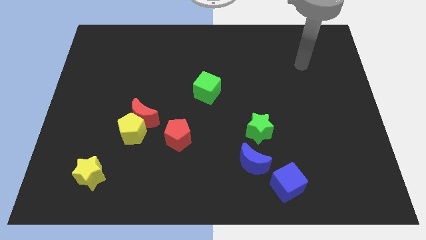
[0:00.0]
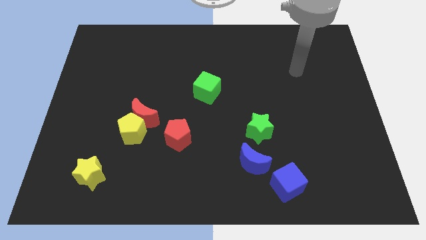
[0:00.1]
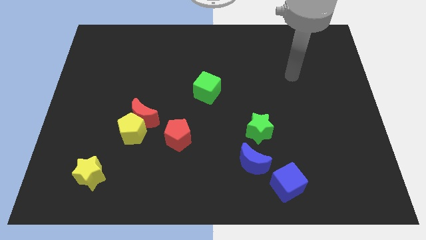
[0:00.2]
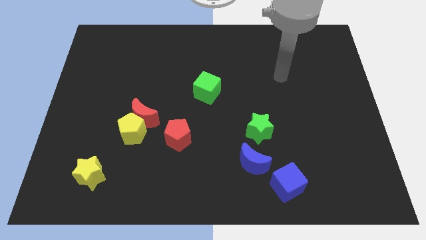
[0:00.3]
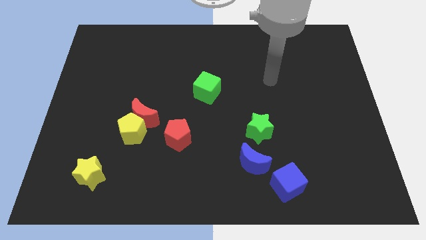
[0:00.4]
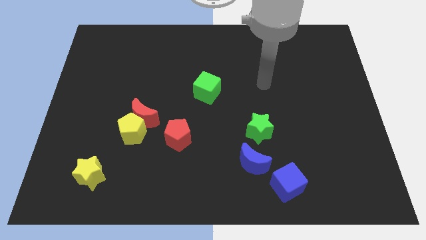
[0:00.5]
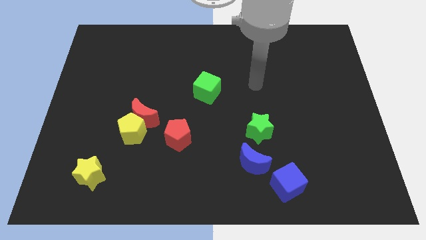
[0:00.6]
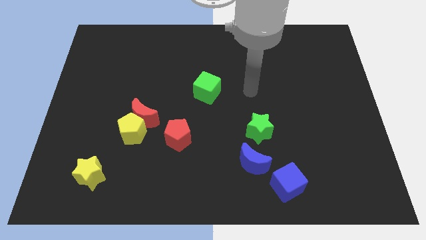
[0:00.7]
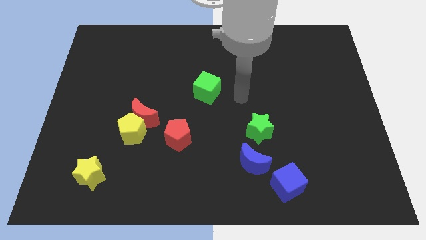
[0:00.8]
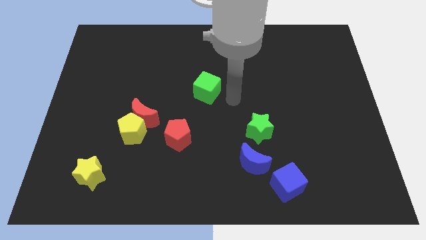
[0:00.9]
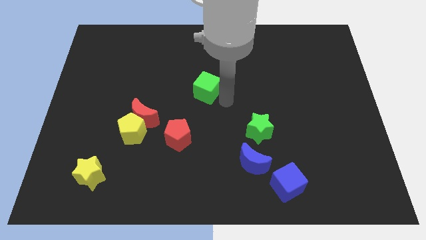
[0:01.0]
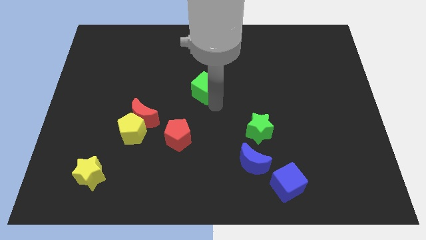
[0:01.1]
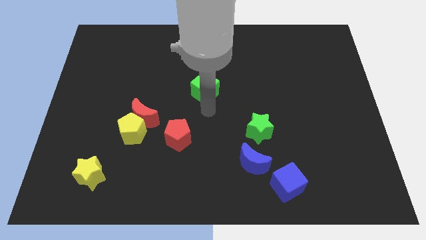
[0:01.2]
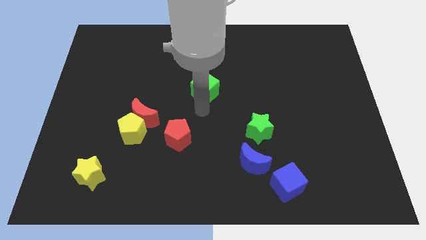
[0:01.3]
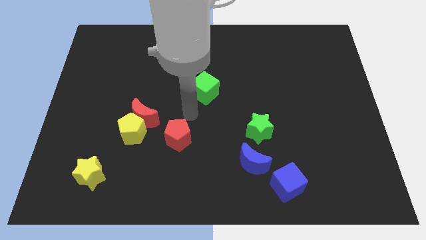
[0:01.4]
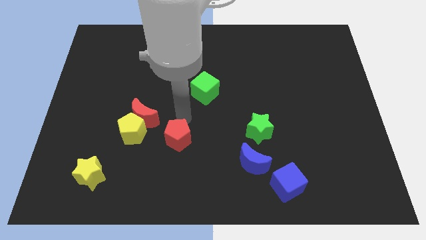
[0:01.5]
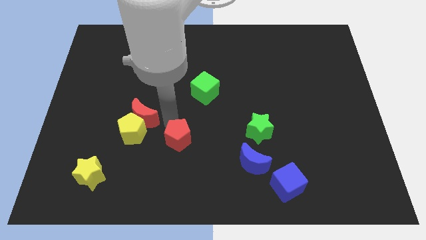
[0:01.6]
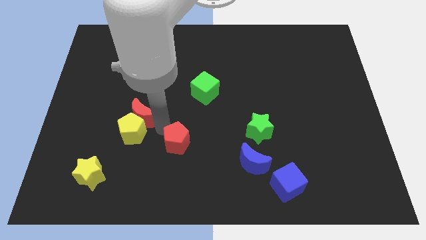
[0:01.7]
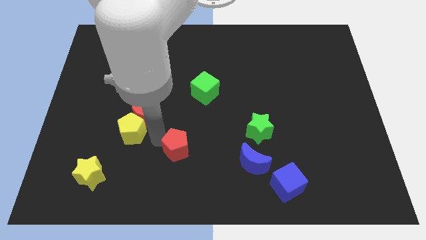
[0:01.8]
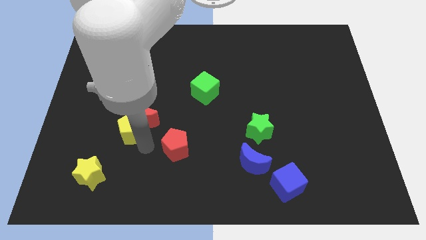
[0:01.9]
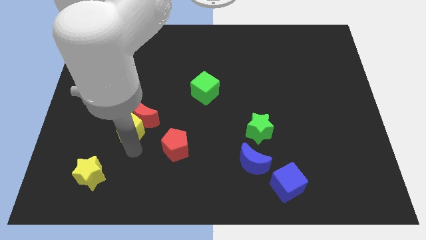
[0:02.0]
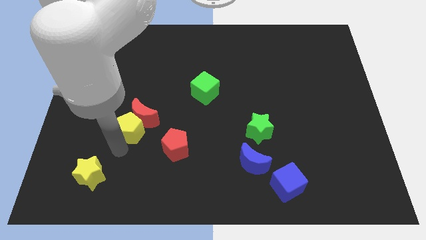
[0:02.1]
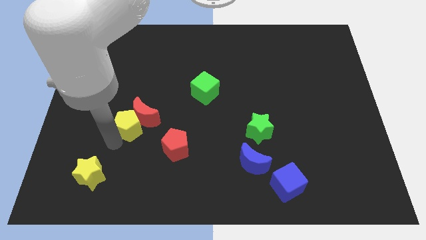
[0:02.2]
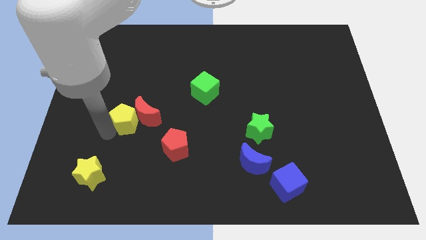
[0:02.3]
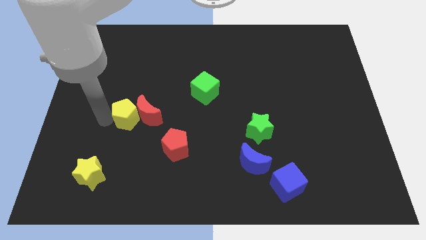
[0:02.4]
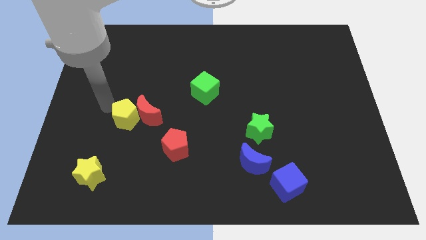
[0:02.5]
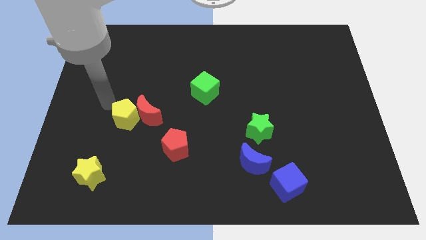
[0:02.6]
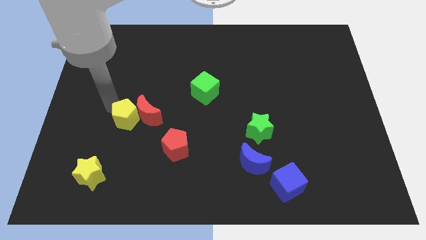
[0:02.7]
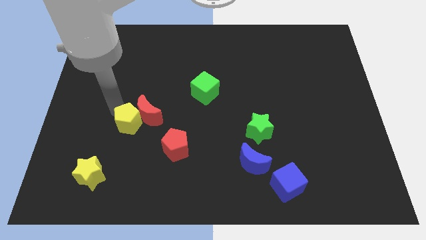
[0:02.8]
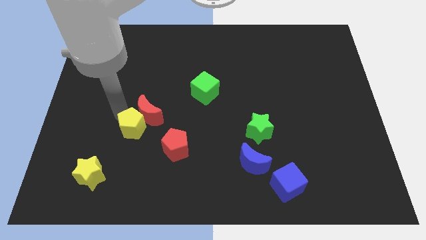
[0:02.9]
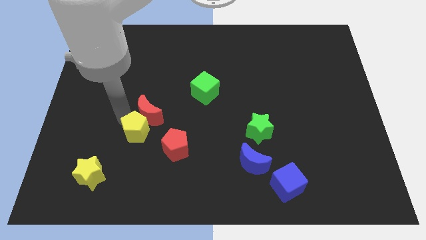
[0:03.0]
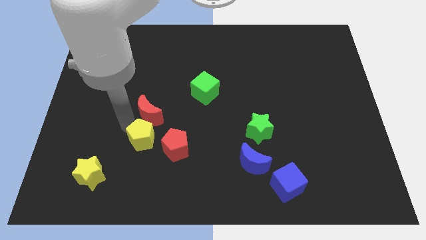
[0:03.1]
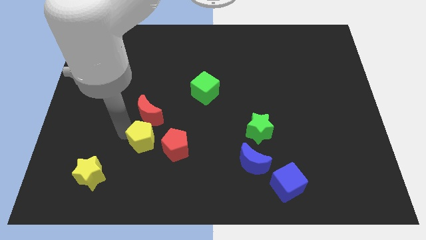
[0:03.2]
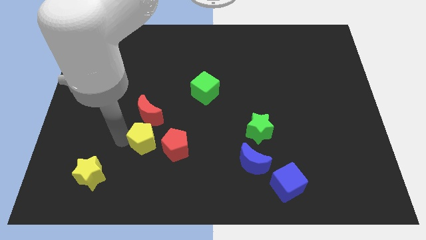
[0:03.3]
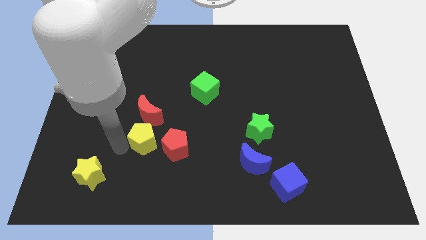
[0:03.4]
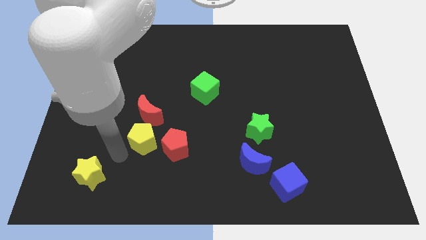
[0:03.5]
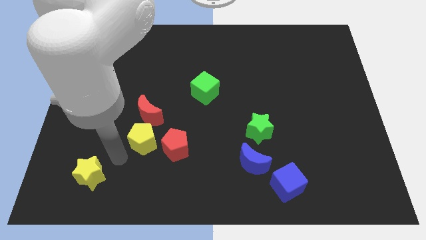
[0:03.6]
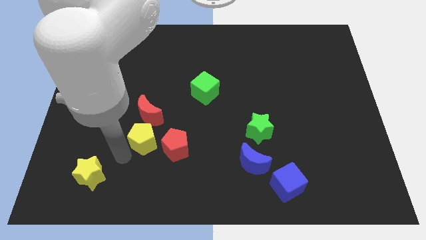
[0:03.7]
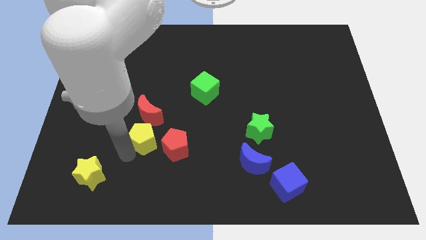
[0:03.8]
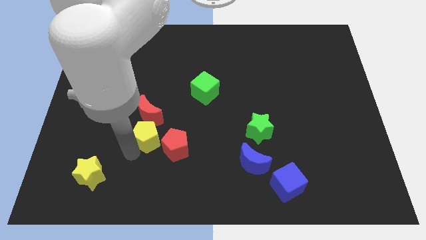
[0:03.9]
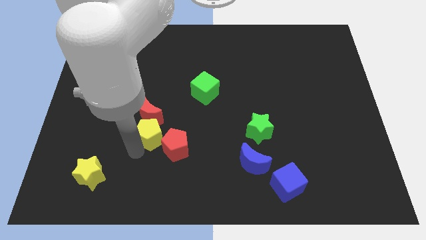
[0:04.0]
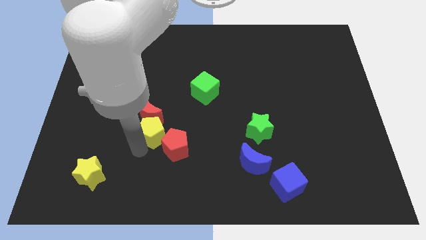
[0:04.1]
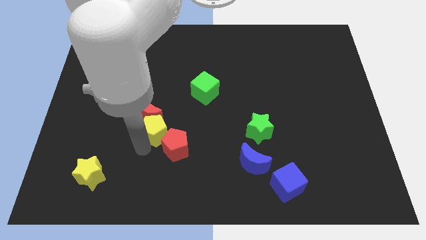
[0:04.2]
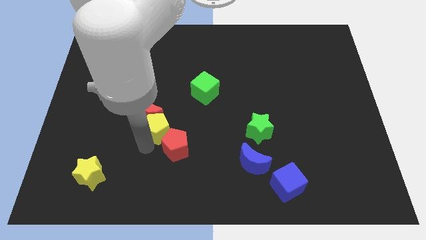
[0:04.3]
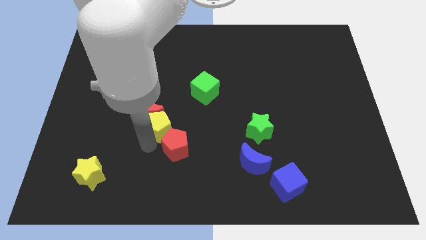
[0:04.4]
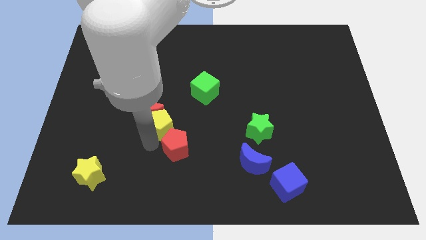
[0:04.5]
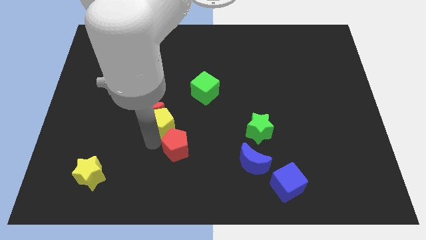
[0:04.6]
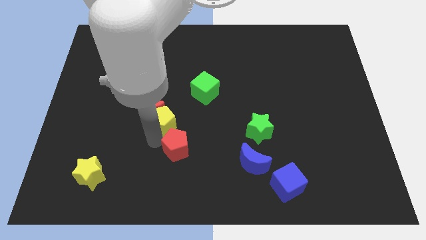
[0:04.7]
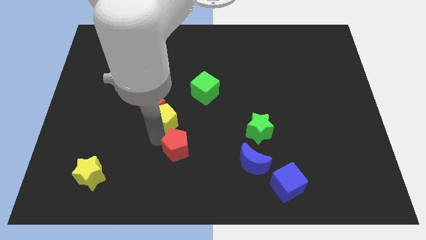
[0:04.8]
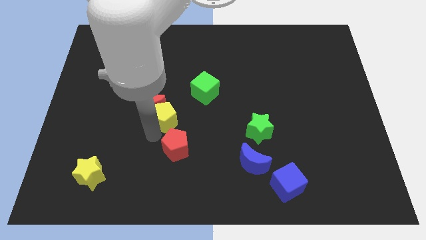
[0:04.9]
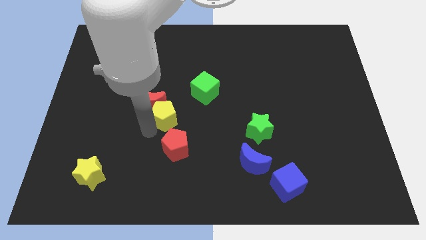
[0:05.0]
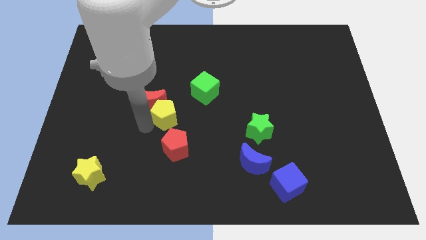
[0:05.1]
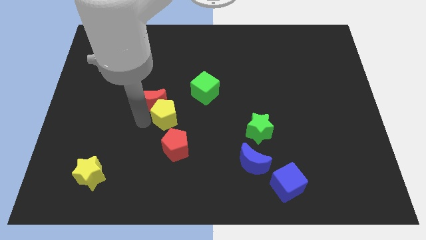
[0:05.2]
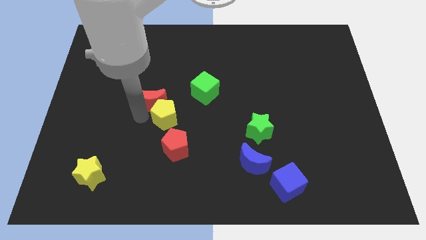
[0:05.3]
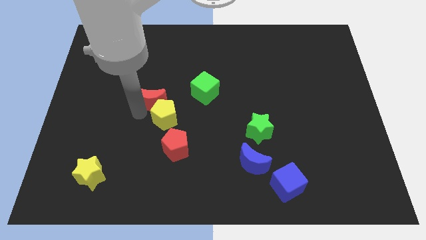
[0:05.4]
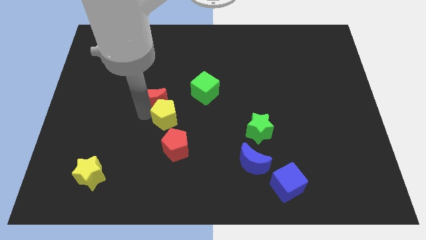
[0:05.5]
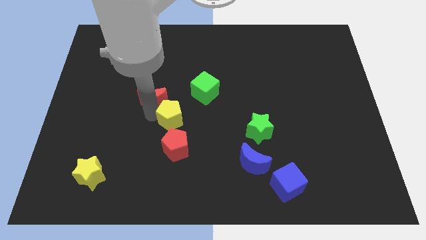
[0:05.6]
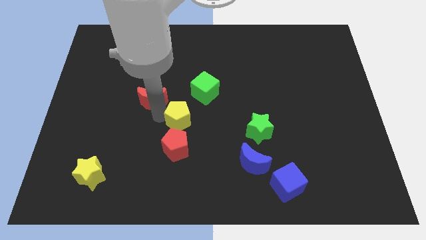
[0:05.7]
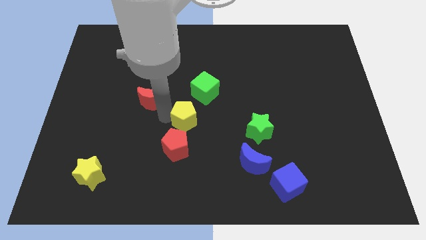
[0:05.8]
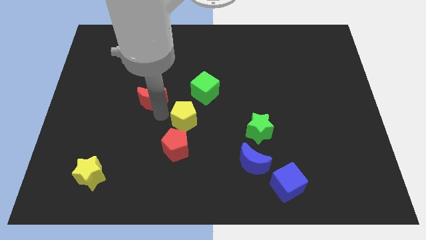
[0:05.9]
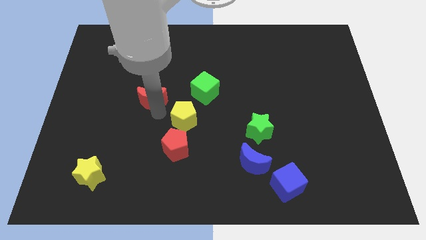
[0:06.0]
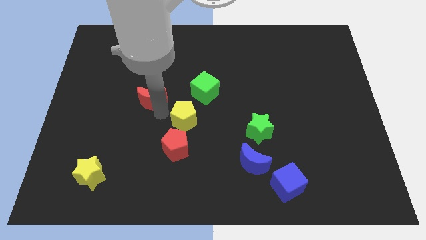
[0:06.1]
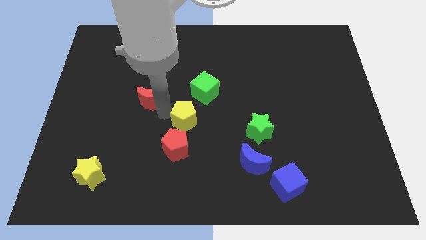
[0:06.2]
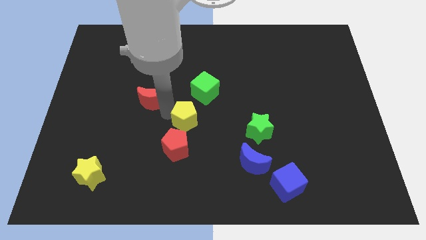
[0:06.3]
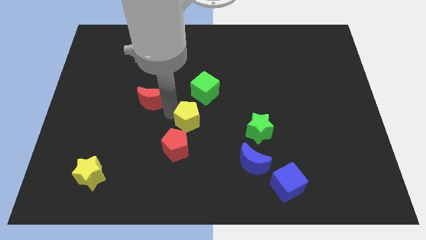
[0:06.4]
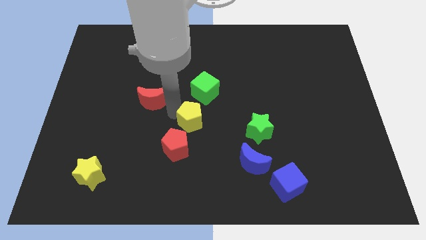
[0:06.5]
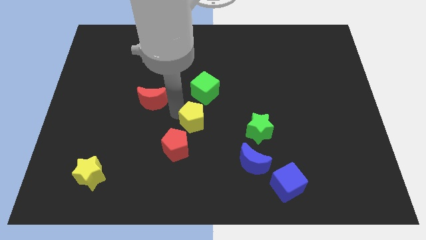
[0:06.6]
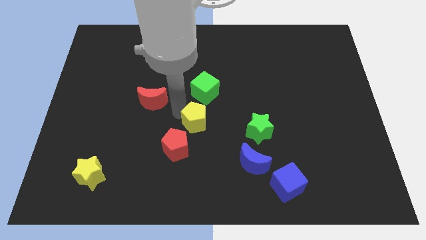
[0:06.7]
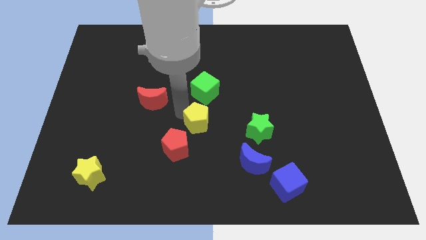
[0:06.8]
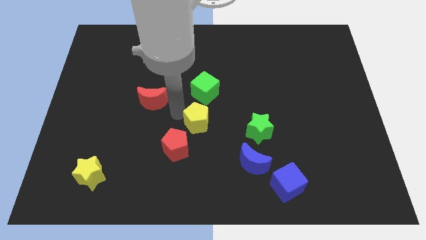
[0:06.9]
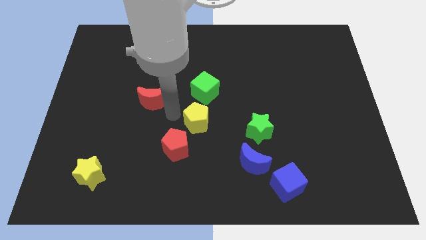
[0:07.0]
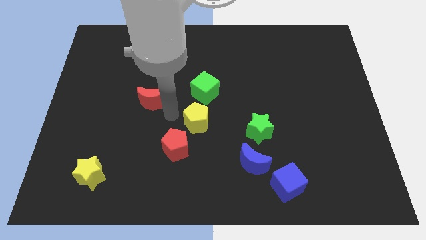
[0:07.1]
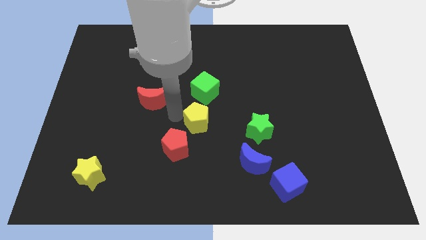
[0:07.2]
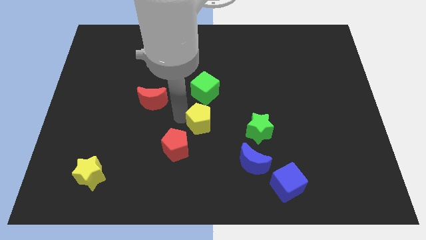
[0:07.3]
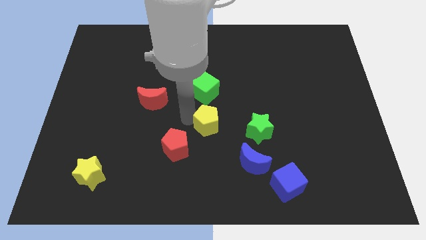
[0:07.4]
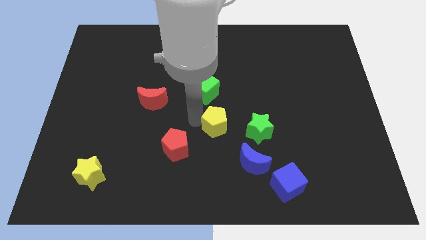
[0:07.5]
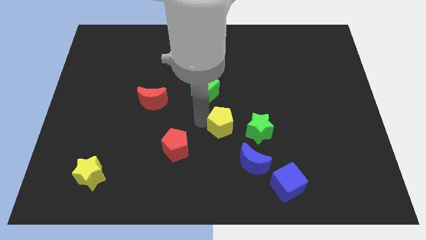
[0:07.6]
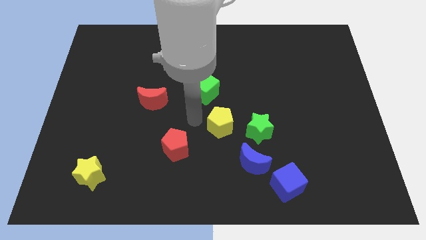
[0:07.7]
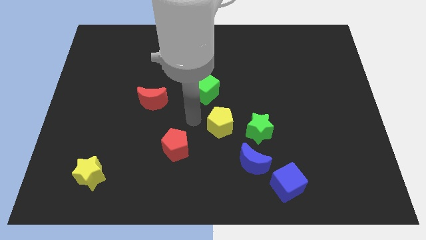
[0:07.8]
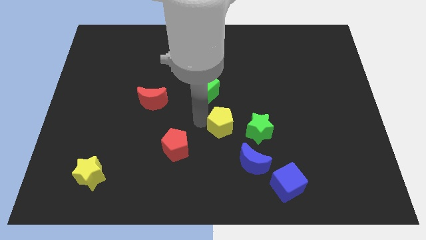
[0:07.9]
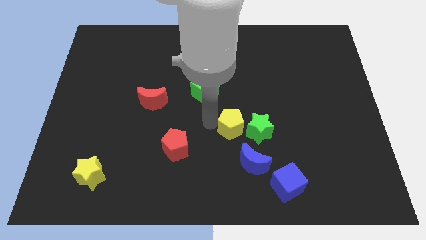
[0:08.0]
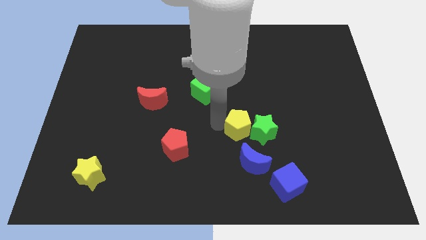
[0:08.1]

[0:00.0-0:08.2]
push the yellow pentagon to the green star
